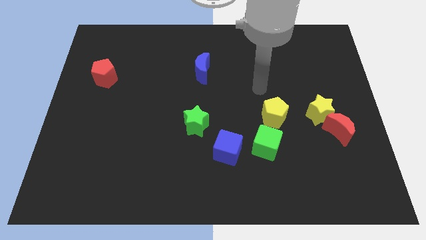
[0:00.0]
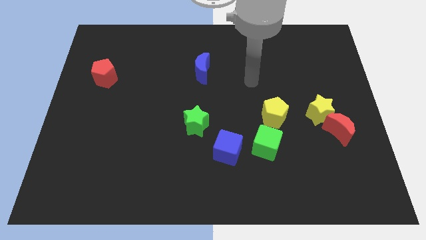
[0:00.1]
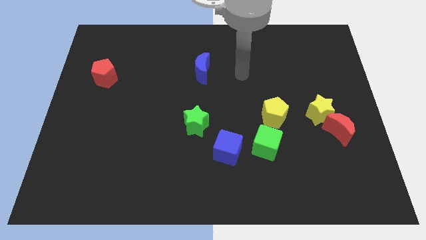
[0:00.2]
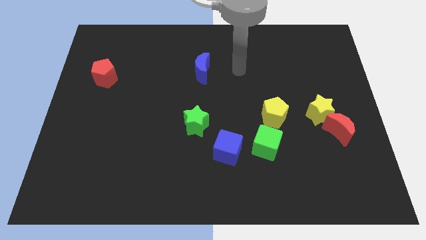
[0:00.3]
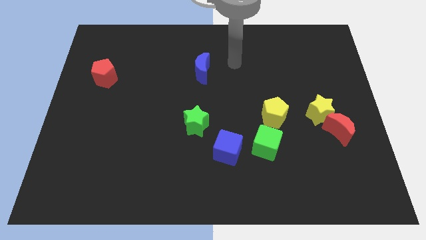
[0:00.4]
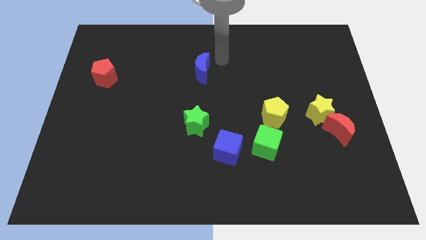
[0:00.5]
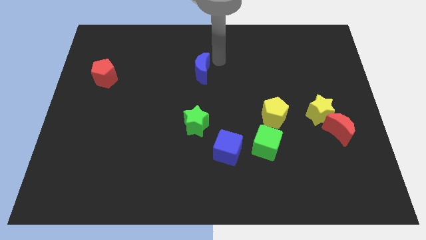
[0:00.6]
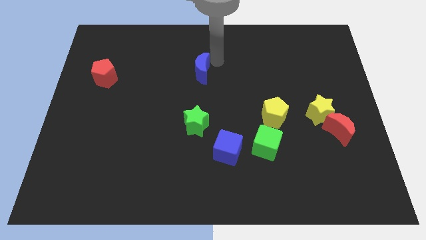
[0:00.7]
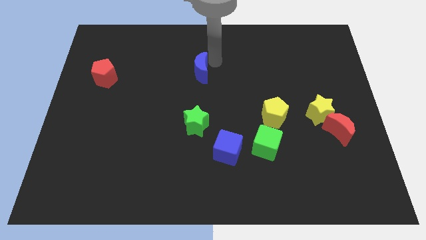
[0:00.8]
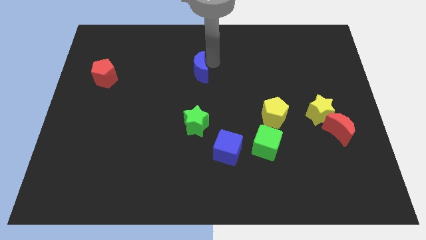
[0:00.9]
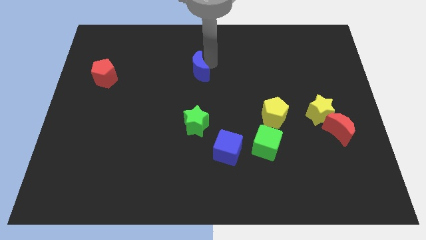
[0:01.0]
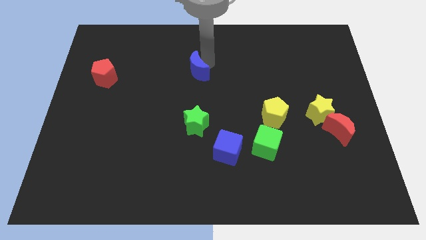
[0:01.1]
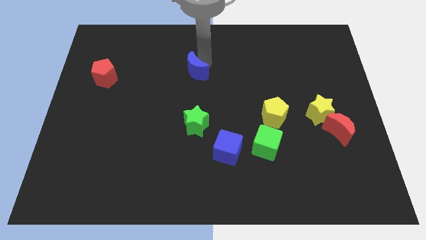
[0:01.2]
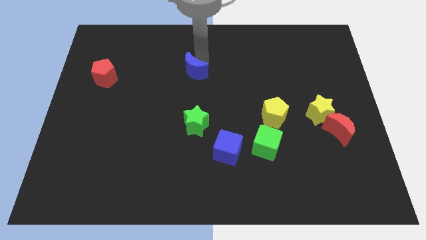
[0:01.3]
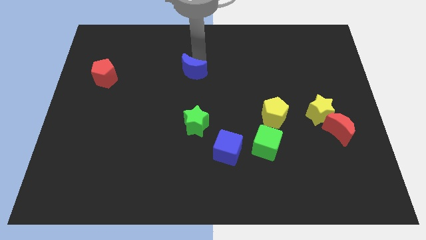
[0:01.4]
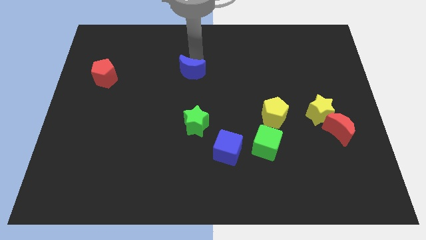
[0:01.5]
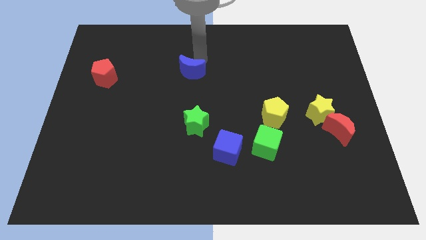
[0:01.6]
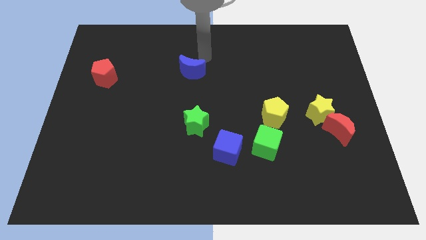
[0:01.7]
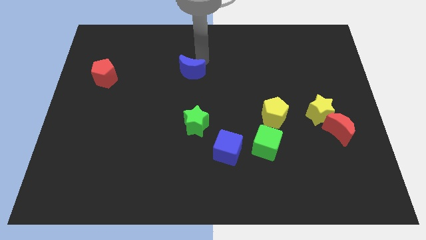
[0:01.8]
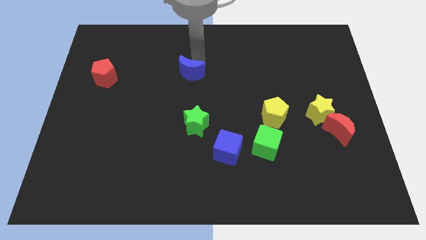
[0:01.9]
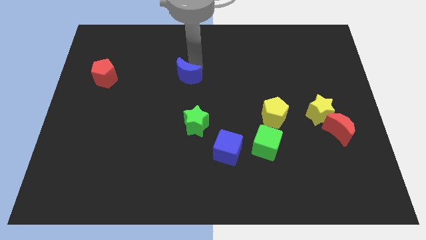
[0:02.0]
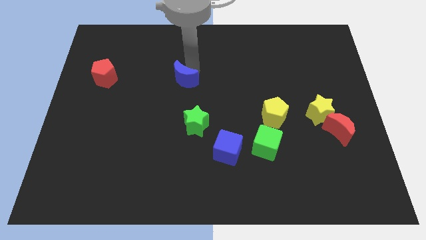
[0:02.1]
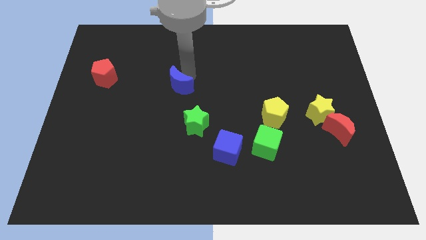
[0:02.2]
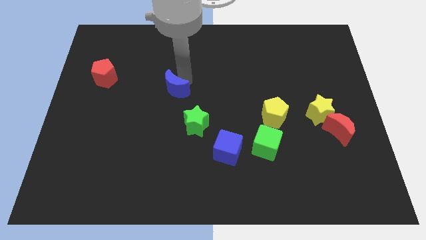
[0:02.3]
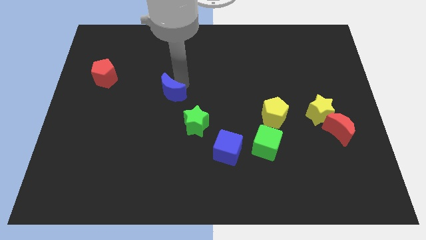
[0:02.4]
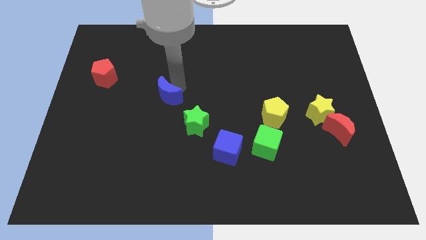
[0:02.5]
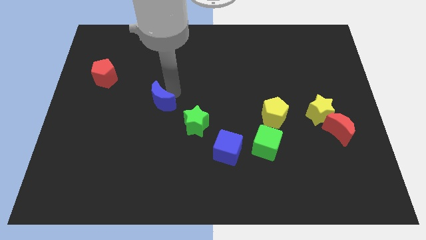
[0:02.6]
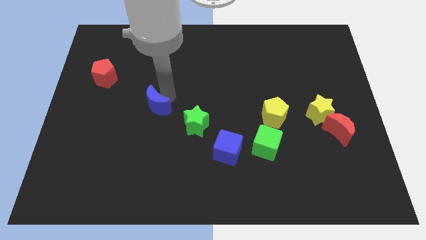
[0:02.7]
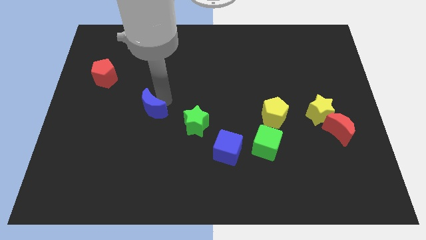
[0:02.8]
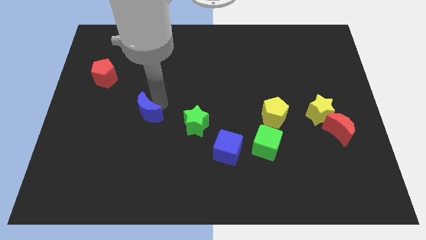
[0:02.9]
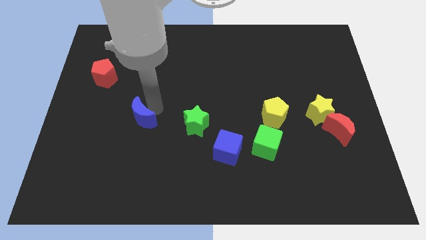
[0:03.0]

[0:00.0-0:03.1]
push the blue moon diagonally down and to the left

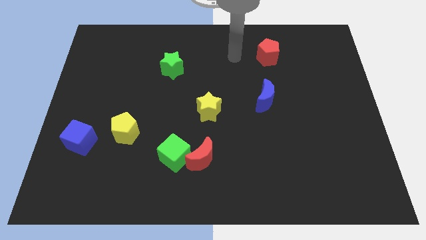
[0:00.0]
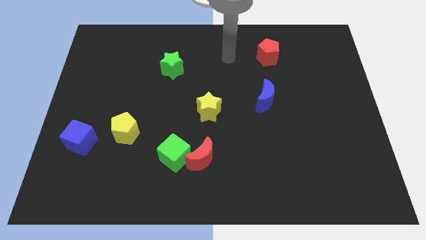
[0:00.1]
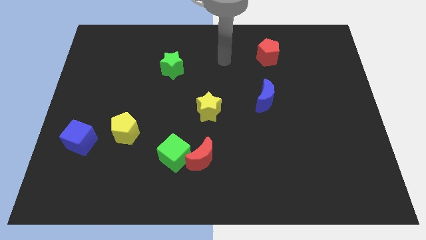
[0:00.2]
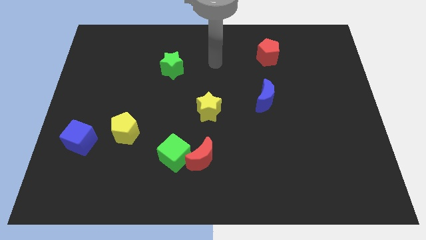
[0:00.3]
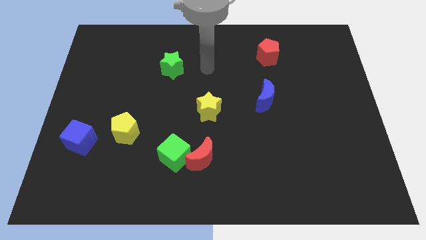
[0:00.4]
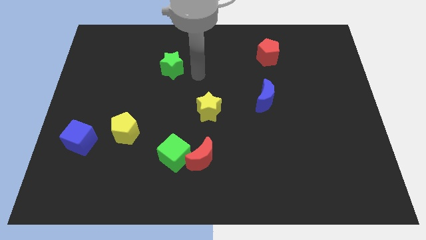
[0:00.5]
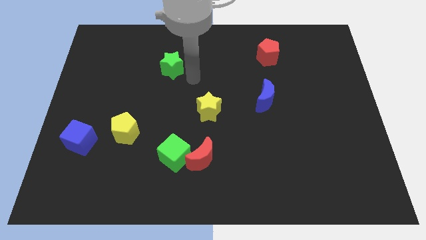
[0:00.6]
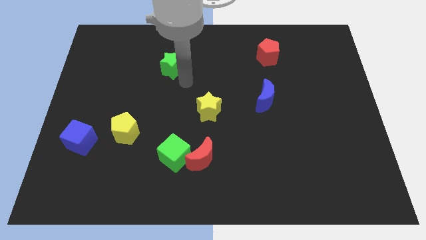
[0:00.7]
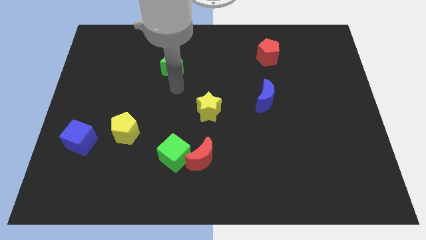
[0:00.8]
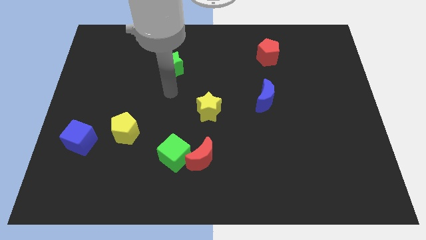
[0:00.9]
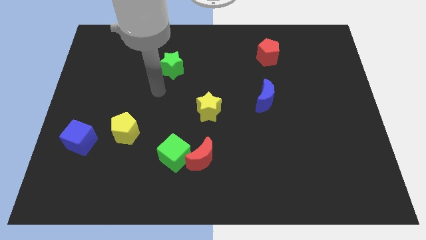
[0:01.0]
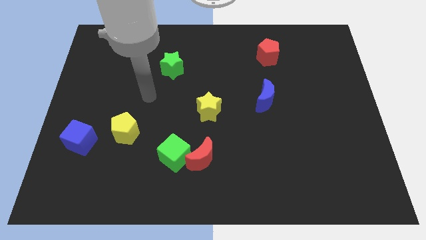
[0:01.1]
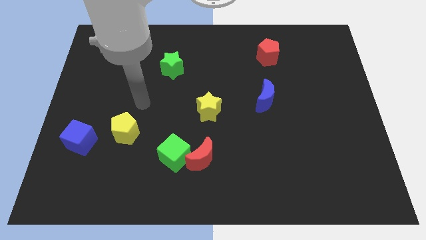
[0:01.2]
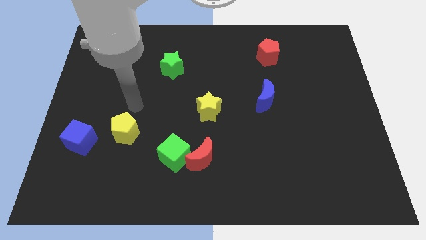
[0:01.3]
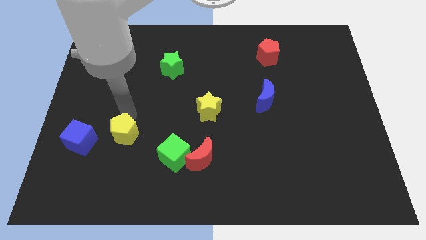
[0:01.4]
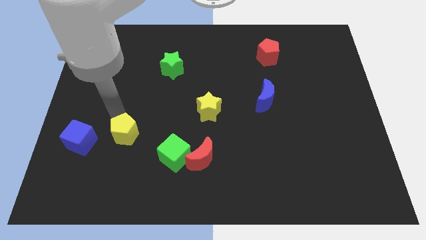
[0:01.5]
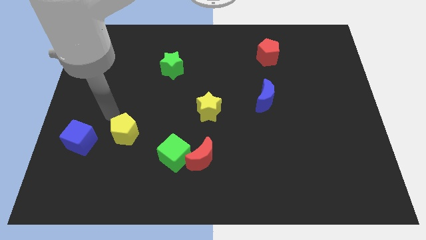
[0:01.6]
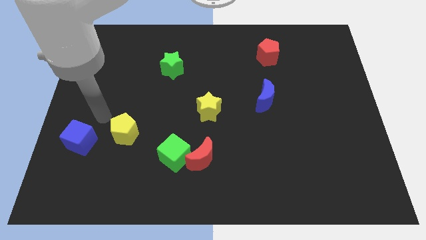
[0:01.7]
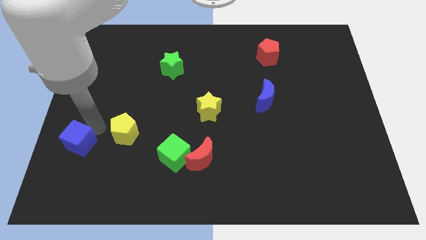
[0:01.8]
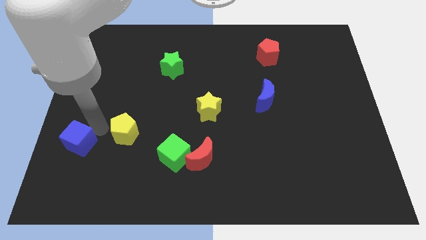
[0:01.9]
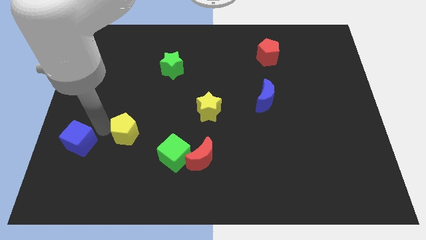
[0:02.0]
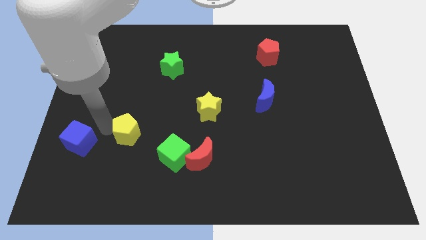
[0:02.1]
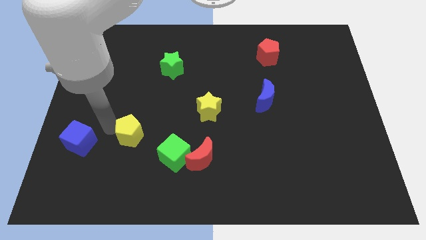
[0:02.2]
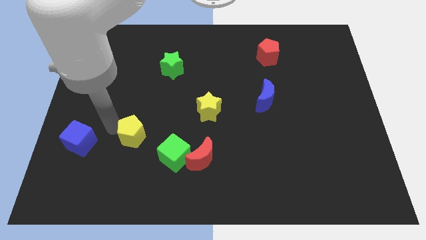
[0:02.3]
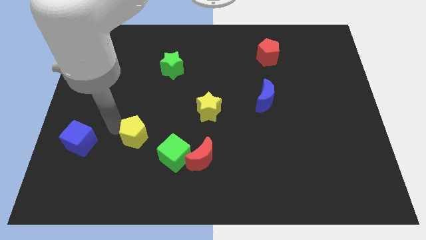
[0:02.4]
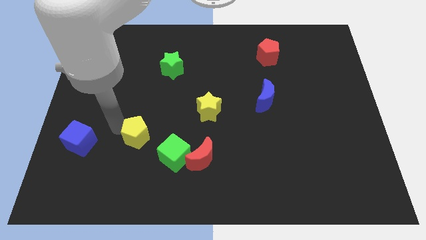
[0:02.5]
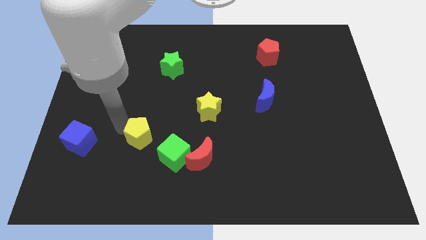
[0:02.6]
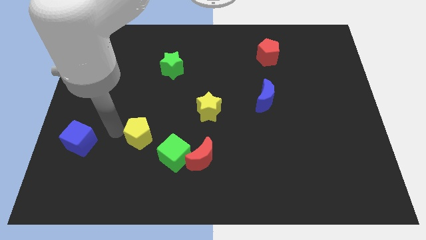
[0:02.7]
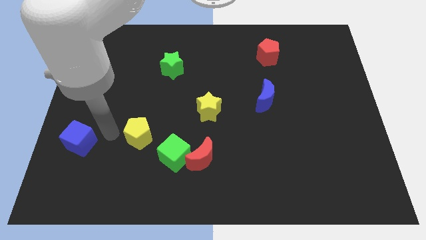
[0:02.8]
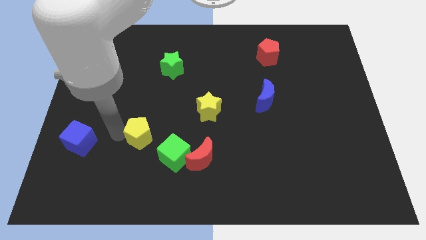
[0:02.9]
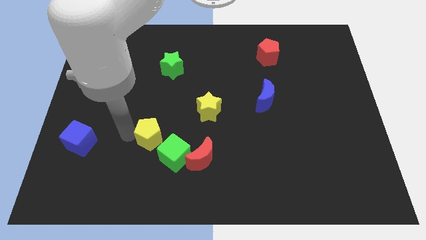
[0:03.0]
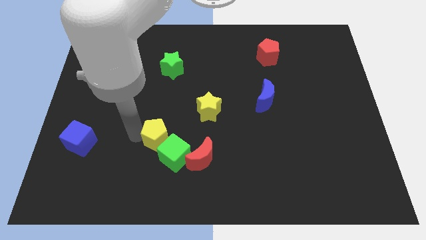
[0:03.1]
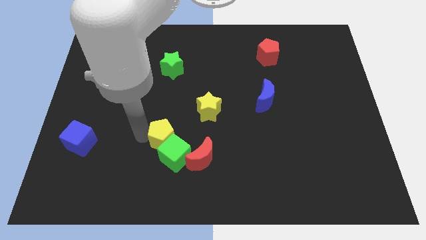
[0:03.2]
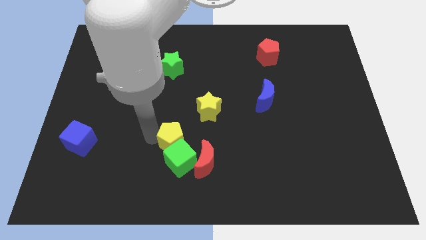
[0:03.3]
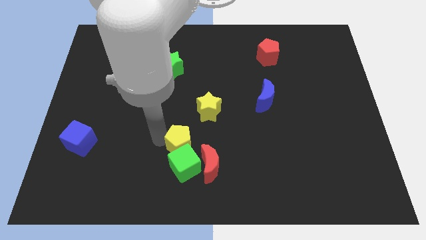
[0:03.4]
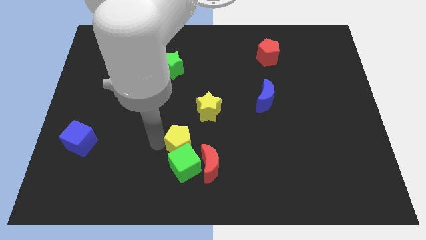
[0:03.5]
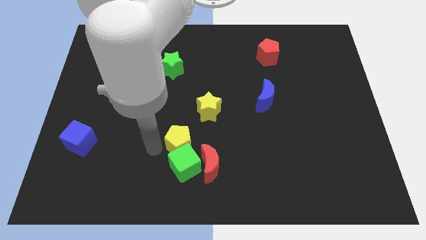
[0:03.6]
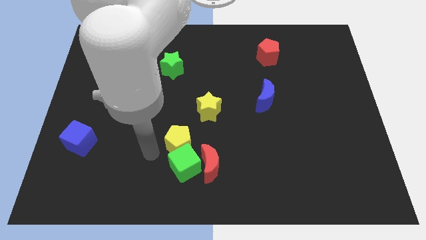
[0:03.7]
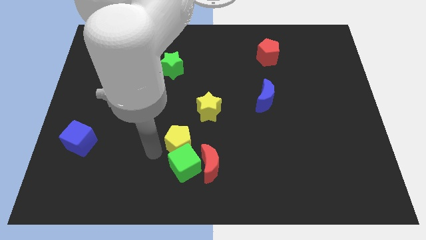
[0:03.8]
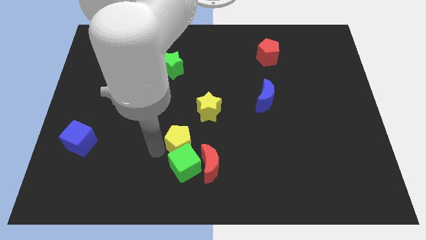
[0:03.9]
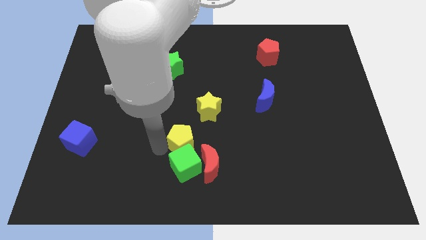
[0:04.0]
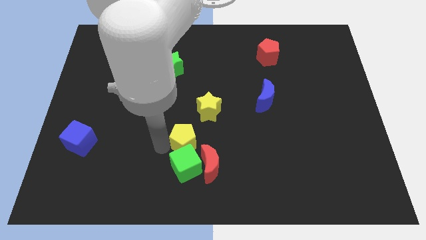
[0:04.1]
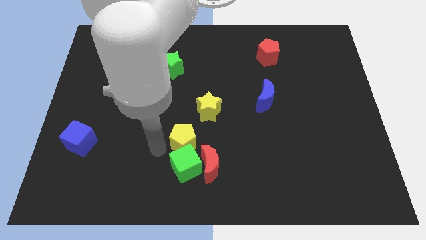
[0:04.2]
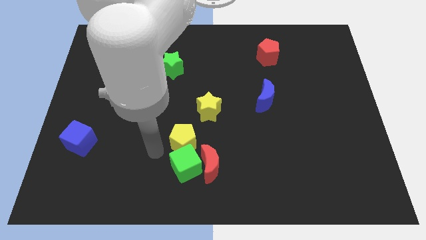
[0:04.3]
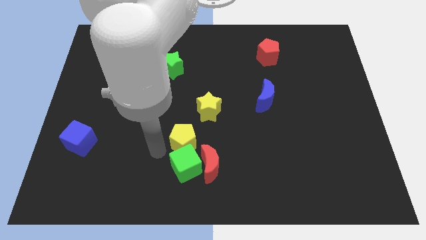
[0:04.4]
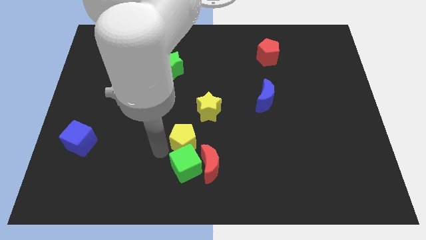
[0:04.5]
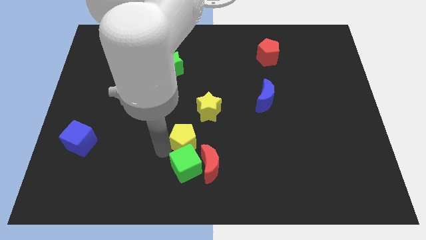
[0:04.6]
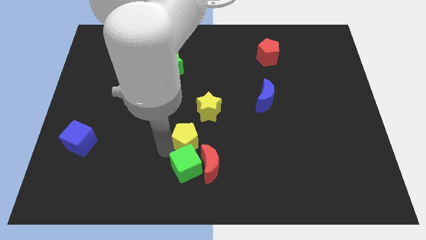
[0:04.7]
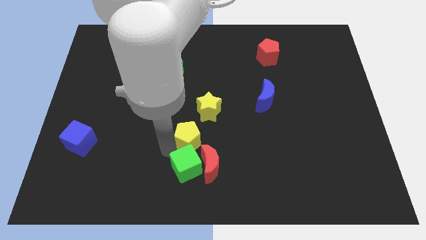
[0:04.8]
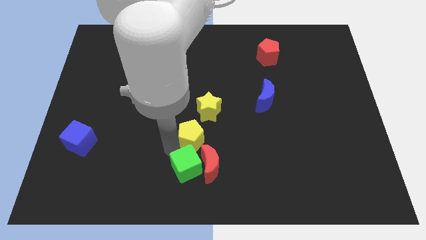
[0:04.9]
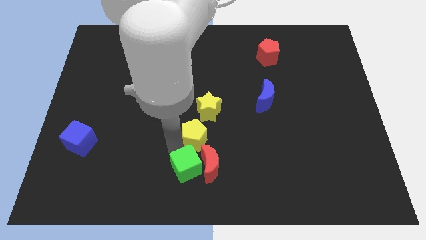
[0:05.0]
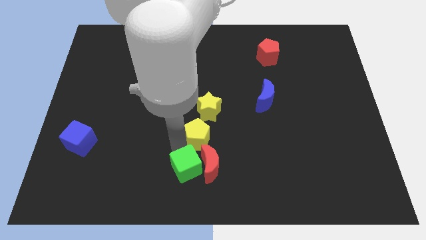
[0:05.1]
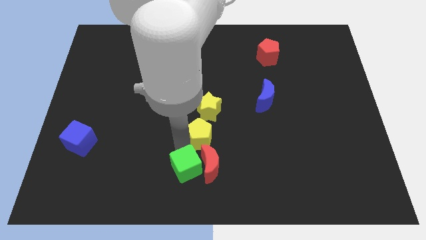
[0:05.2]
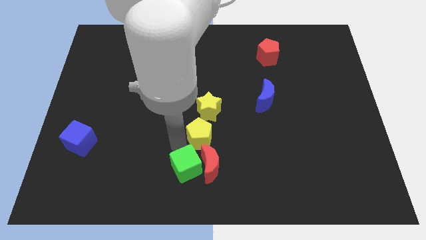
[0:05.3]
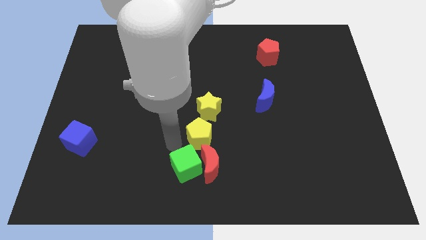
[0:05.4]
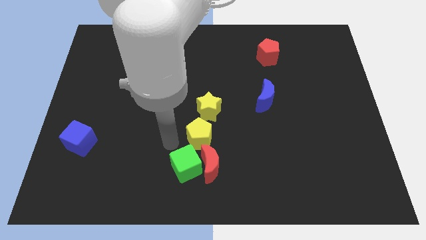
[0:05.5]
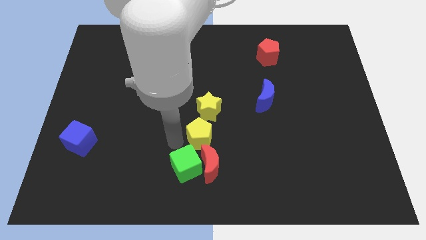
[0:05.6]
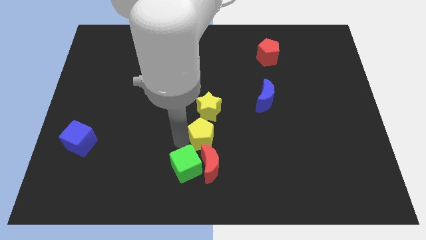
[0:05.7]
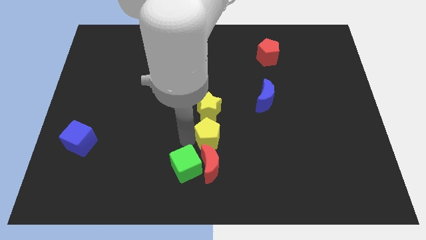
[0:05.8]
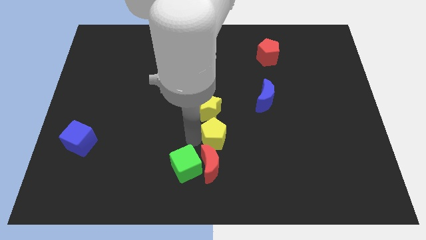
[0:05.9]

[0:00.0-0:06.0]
slide the yellow pentagon to the right
